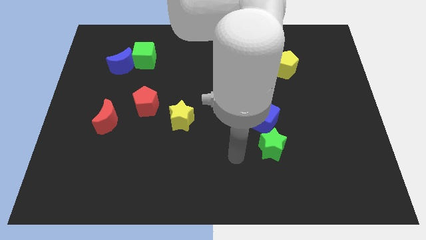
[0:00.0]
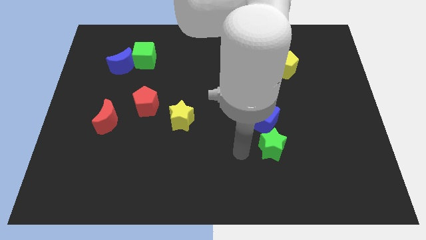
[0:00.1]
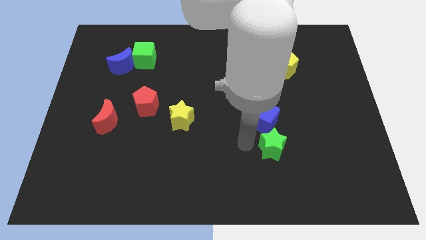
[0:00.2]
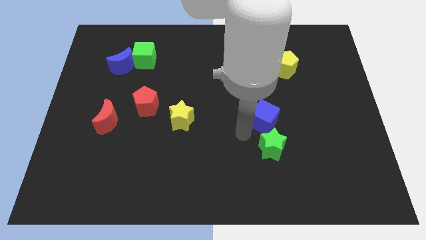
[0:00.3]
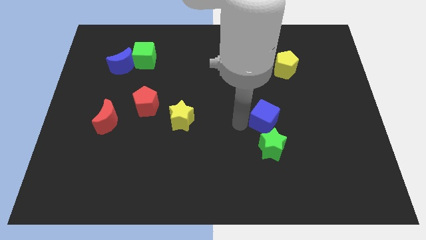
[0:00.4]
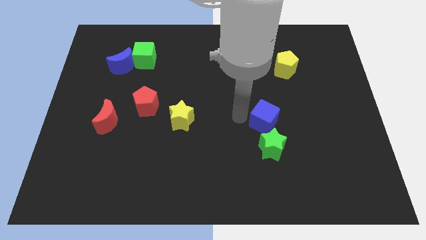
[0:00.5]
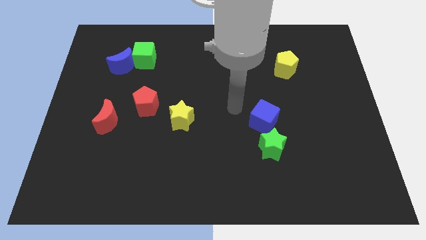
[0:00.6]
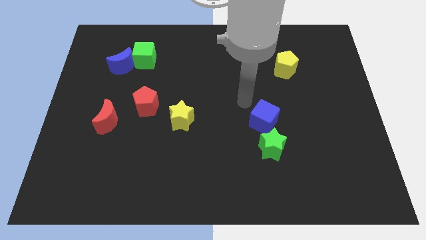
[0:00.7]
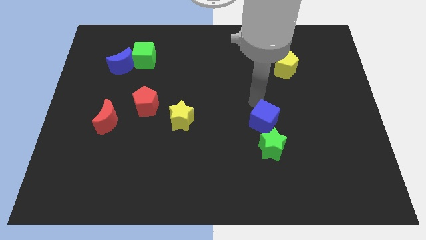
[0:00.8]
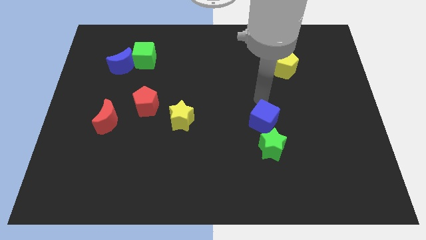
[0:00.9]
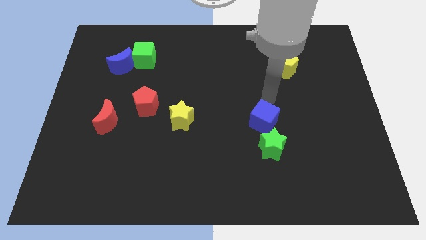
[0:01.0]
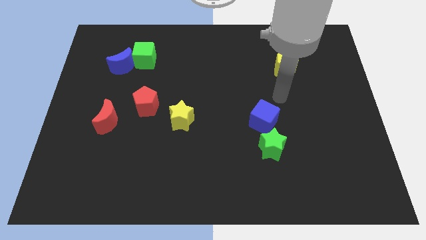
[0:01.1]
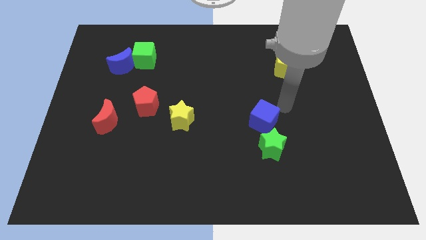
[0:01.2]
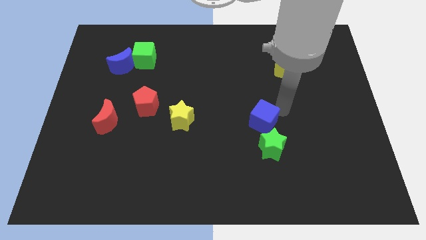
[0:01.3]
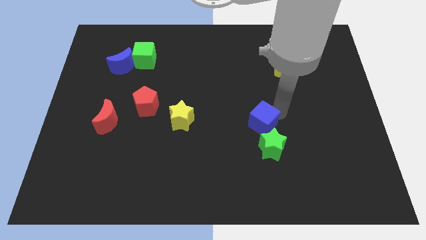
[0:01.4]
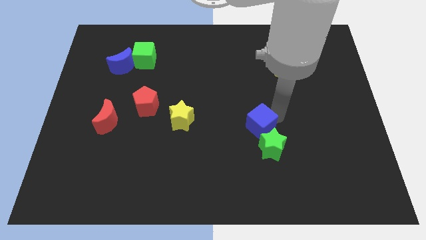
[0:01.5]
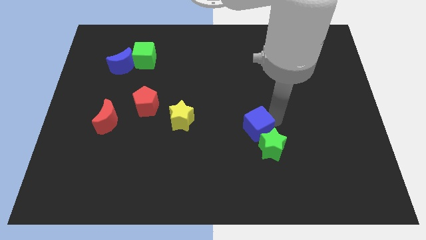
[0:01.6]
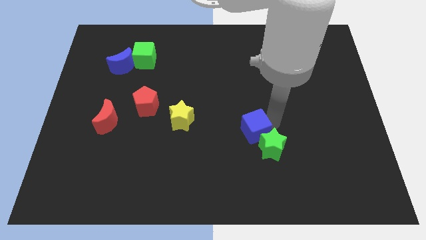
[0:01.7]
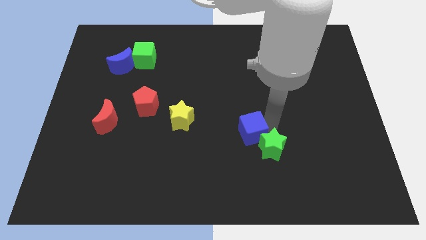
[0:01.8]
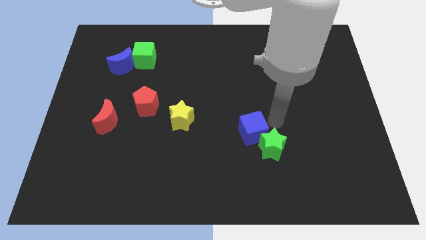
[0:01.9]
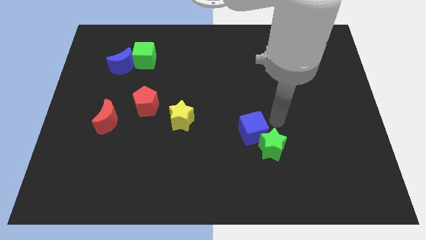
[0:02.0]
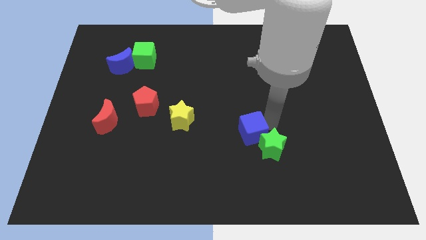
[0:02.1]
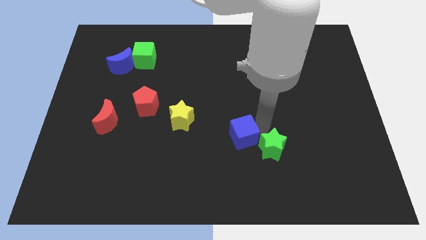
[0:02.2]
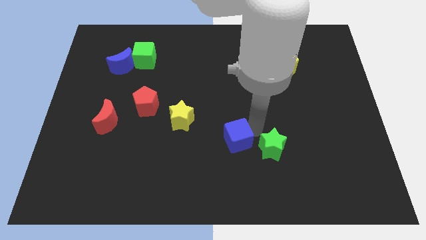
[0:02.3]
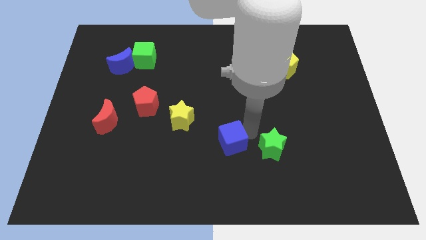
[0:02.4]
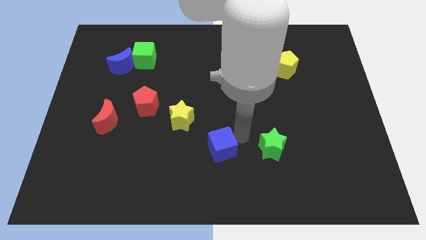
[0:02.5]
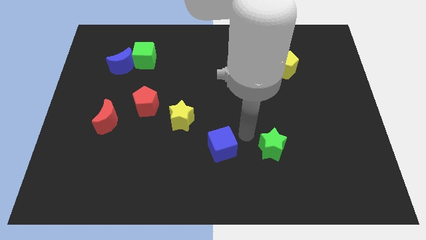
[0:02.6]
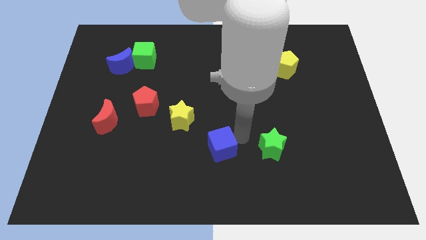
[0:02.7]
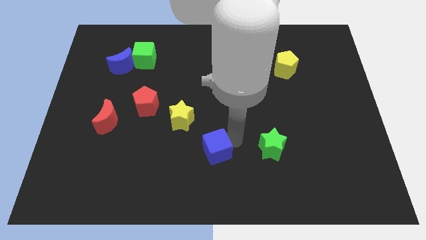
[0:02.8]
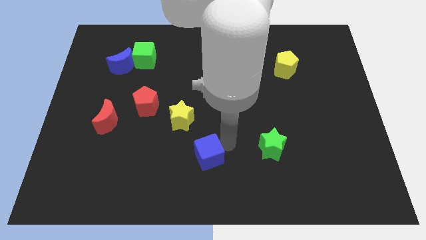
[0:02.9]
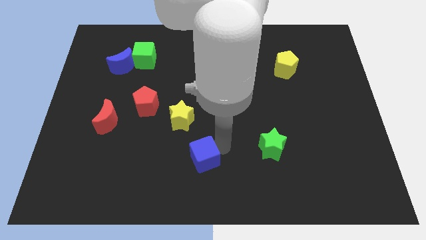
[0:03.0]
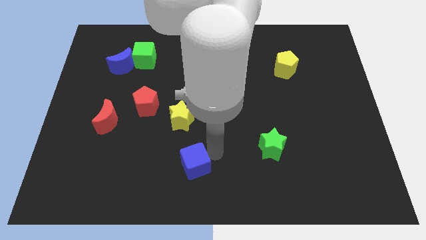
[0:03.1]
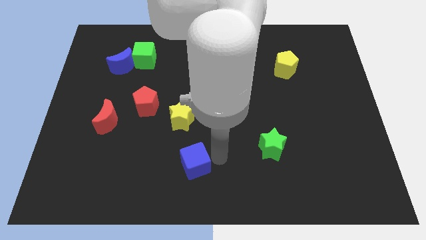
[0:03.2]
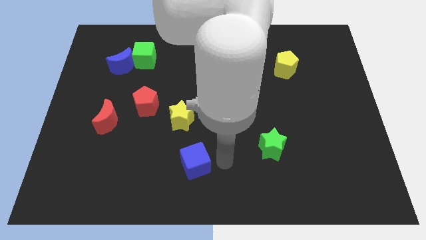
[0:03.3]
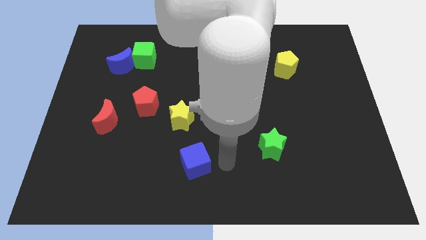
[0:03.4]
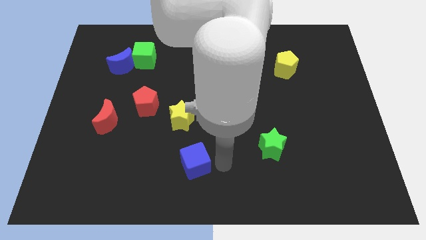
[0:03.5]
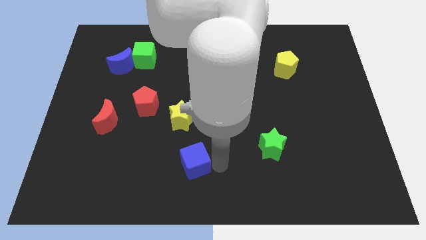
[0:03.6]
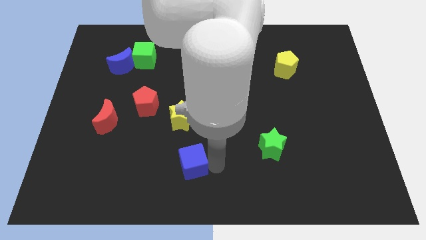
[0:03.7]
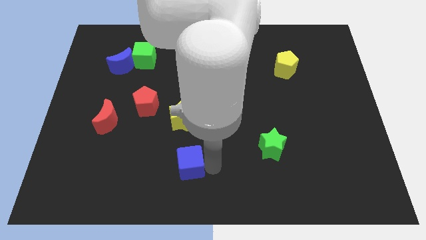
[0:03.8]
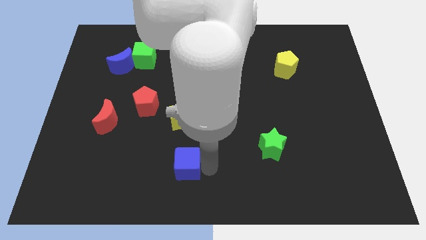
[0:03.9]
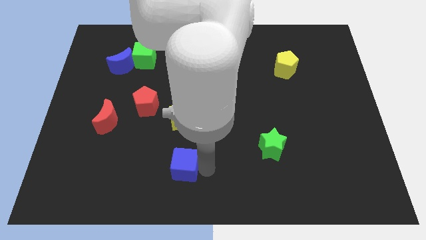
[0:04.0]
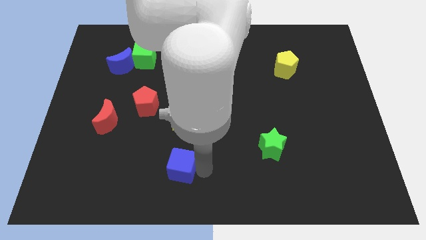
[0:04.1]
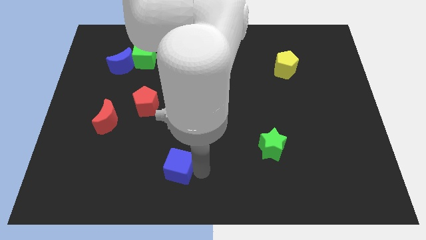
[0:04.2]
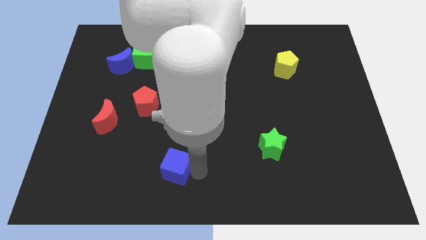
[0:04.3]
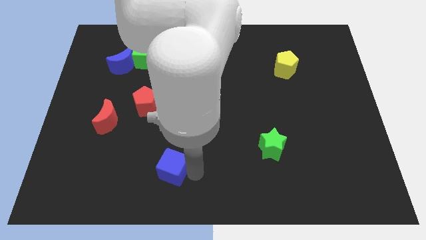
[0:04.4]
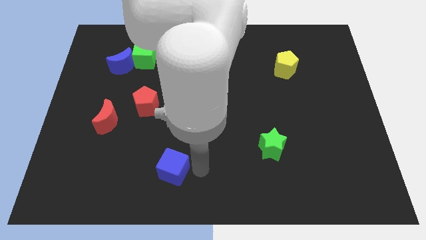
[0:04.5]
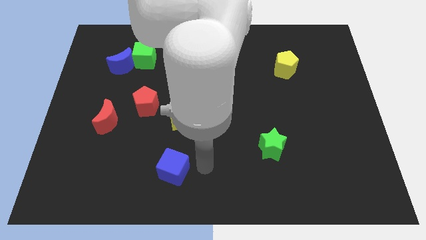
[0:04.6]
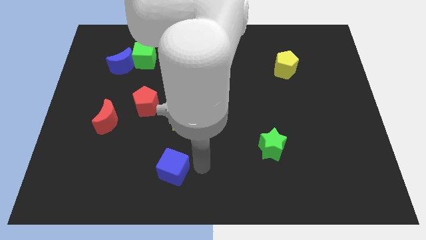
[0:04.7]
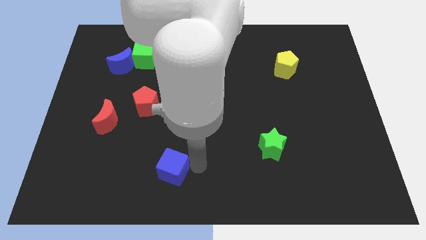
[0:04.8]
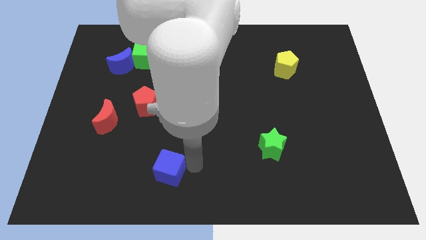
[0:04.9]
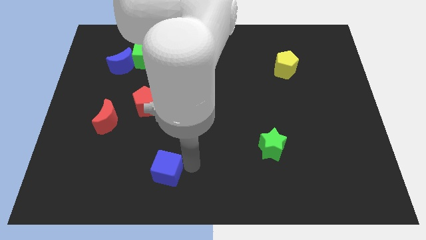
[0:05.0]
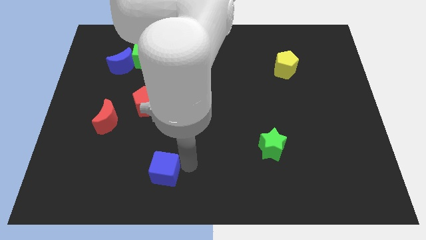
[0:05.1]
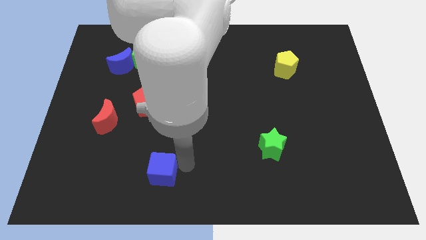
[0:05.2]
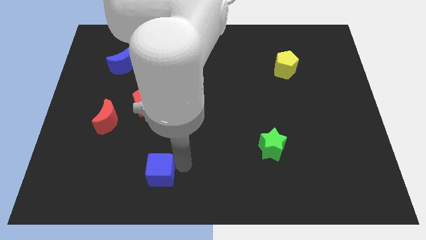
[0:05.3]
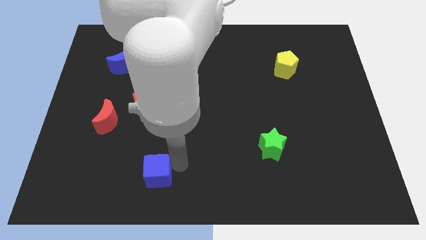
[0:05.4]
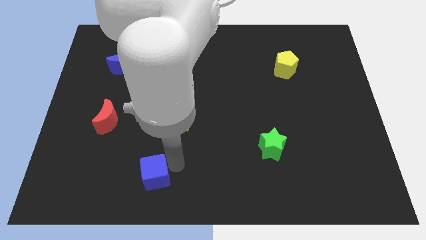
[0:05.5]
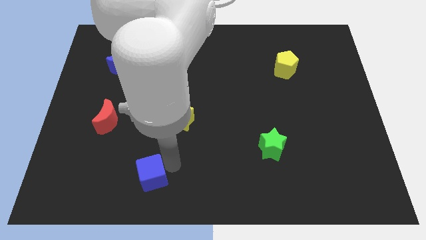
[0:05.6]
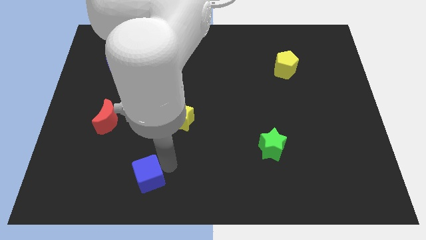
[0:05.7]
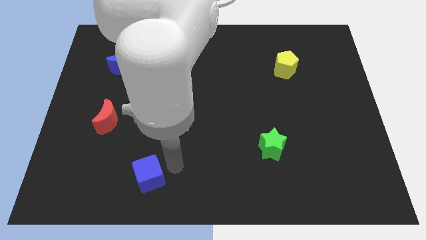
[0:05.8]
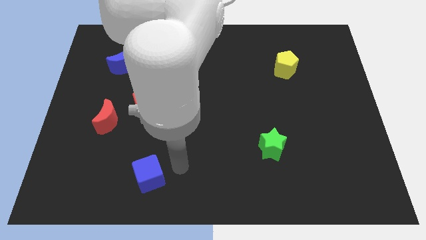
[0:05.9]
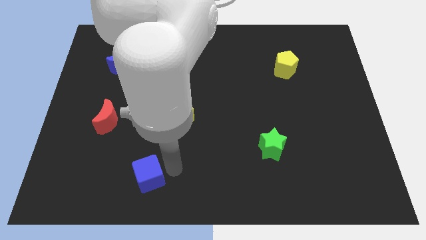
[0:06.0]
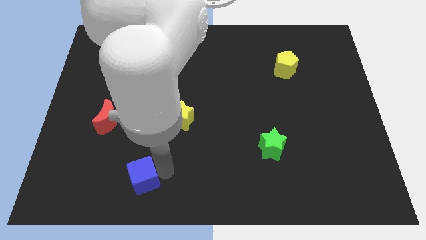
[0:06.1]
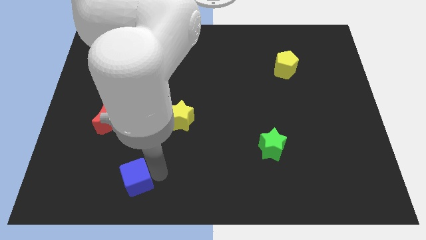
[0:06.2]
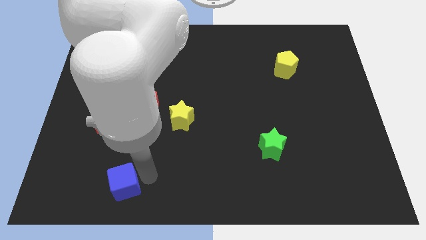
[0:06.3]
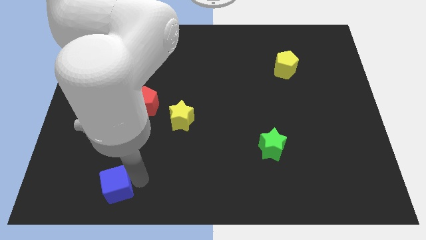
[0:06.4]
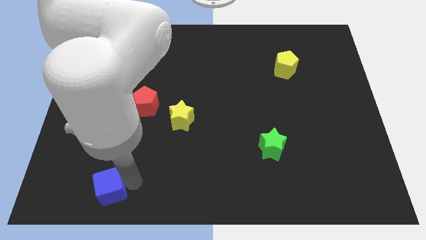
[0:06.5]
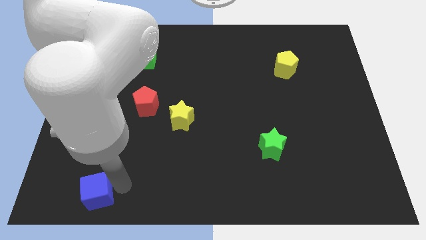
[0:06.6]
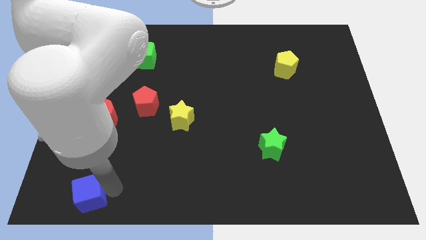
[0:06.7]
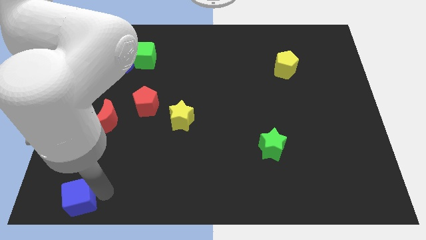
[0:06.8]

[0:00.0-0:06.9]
put the blue cube to the bottom left of the board
